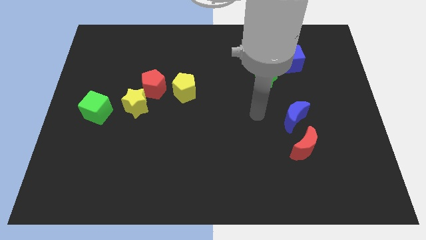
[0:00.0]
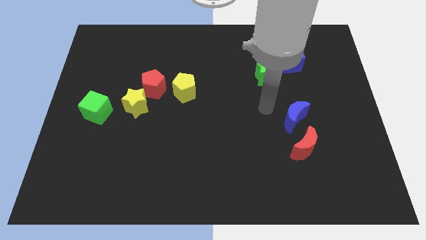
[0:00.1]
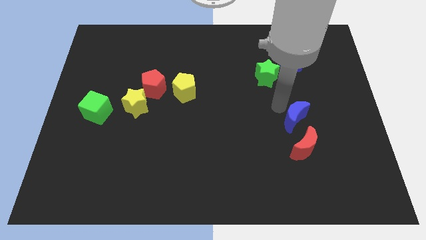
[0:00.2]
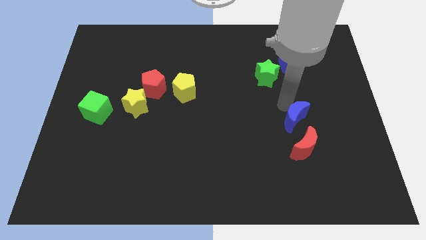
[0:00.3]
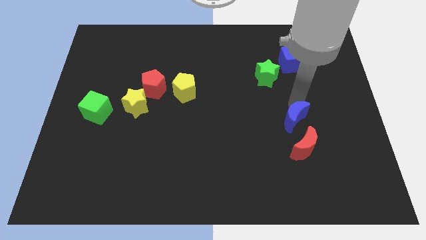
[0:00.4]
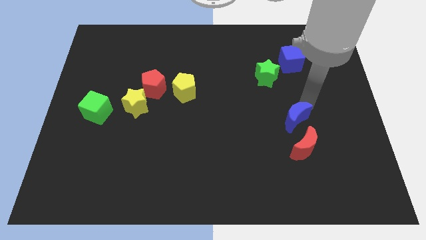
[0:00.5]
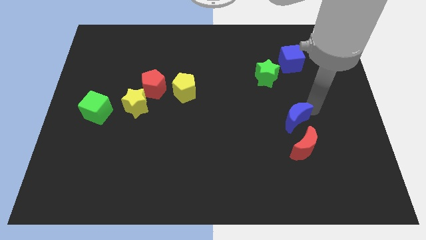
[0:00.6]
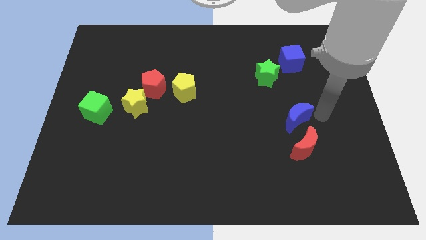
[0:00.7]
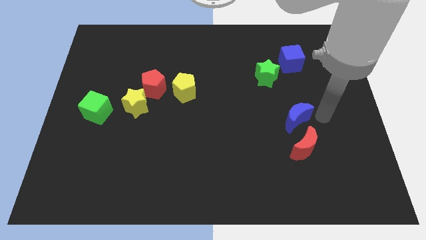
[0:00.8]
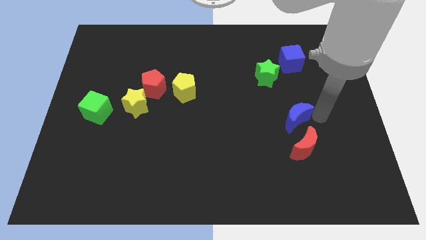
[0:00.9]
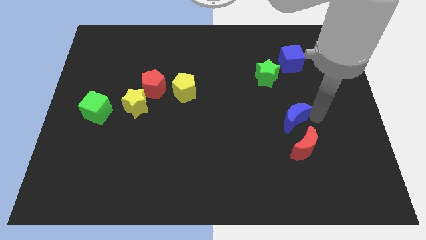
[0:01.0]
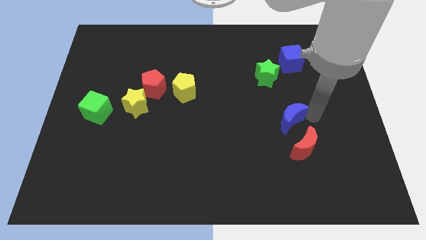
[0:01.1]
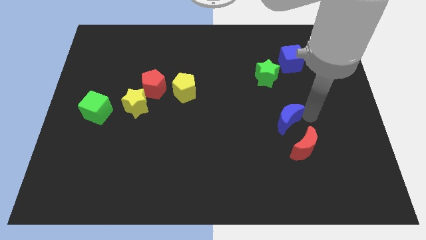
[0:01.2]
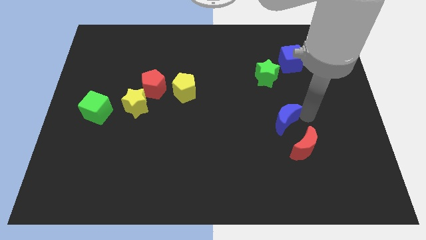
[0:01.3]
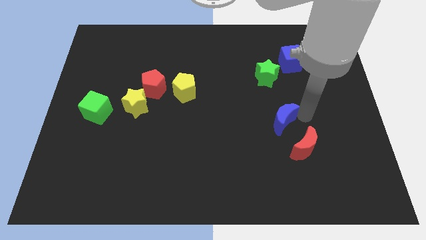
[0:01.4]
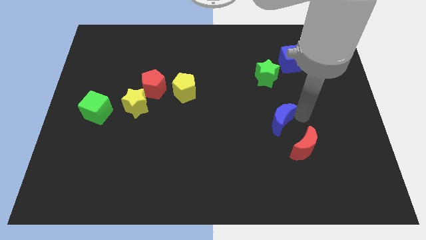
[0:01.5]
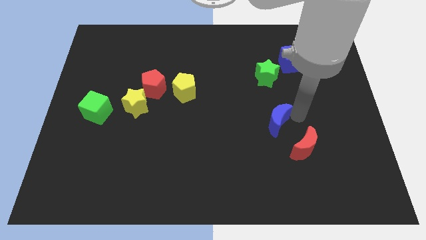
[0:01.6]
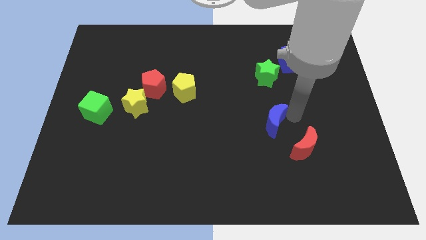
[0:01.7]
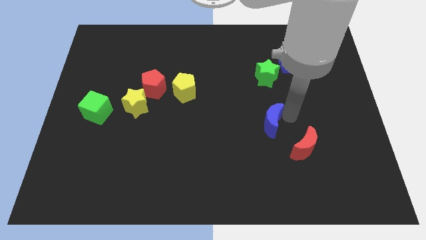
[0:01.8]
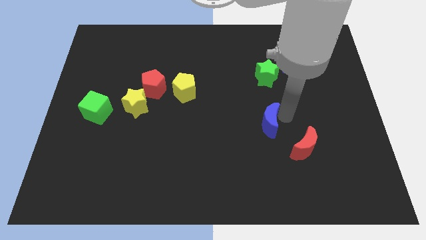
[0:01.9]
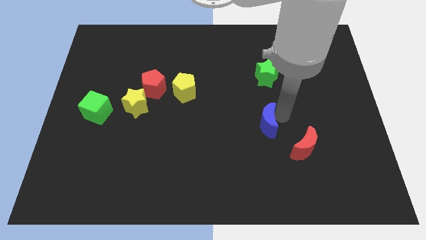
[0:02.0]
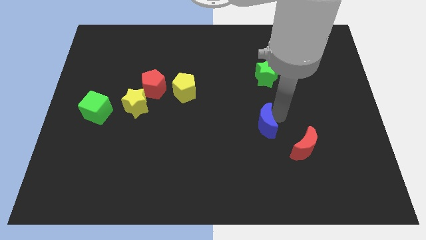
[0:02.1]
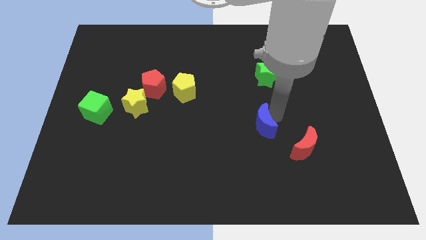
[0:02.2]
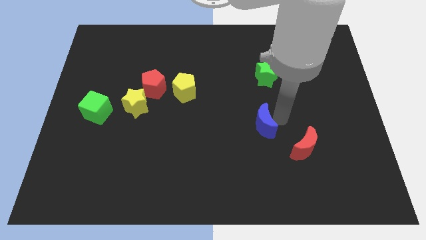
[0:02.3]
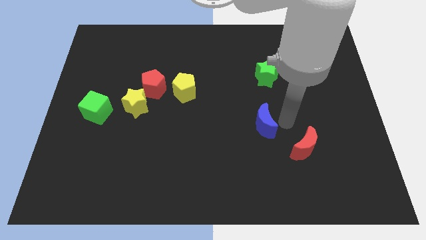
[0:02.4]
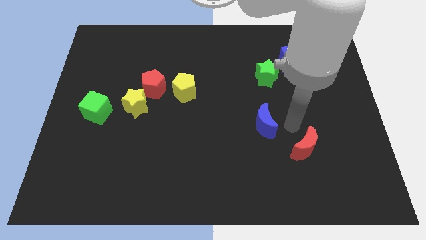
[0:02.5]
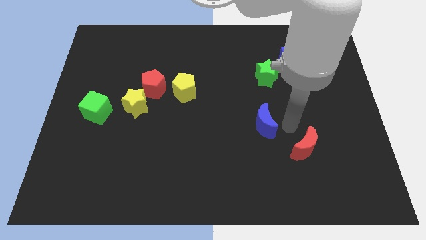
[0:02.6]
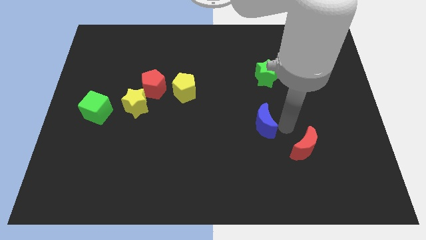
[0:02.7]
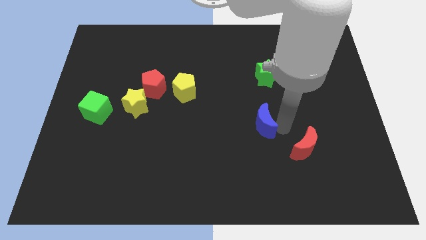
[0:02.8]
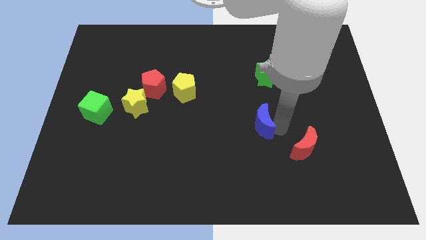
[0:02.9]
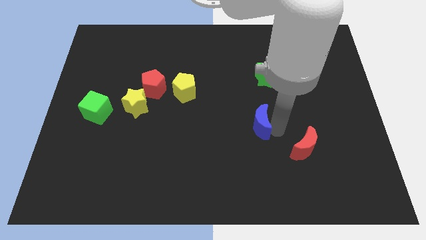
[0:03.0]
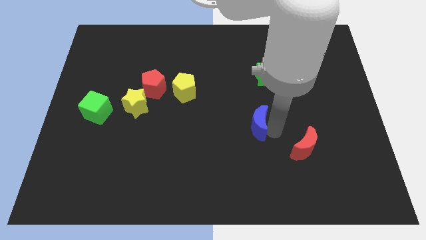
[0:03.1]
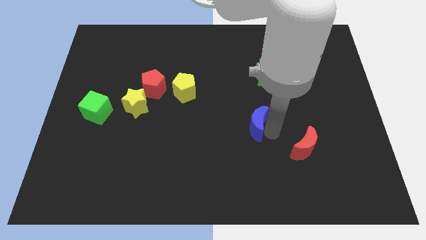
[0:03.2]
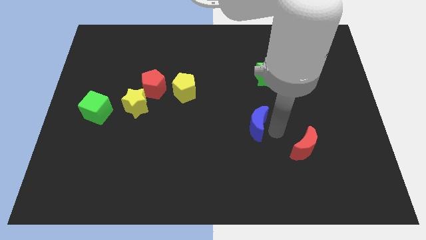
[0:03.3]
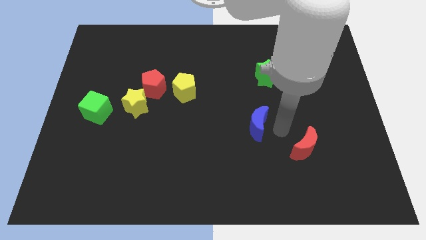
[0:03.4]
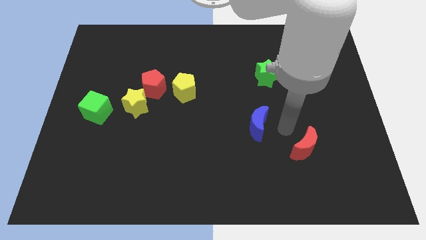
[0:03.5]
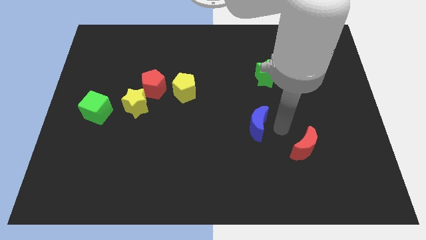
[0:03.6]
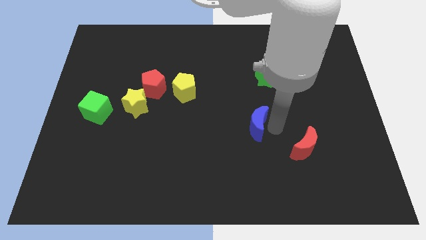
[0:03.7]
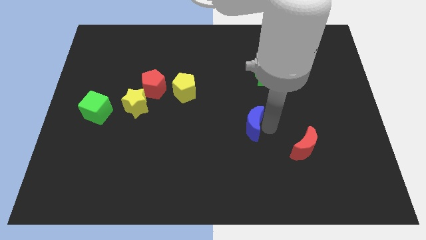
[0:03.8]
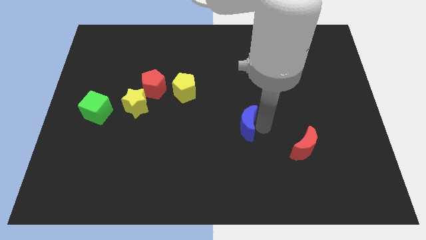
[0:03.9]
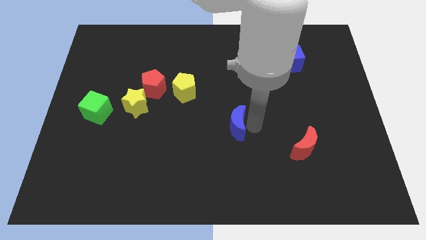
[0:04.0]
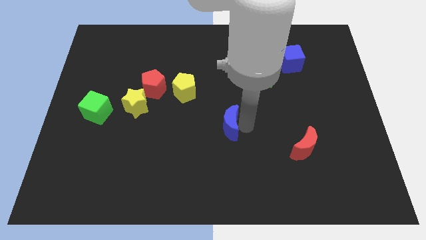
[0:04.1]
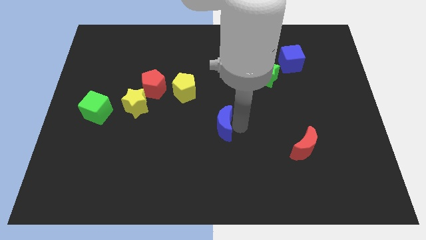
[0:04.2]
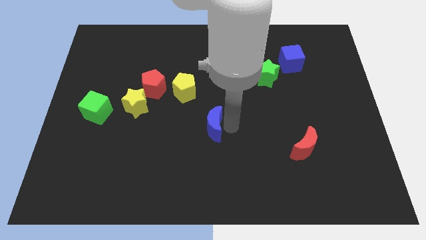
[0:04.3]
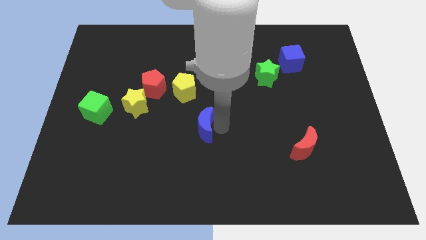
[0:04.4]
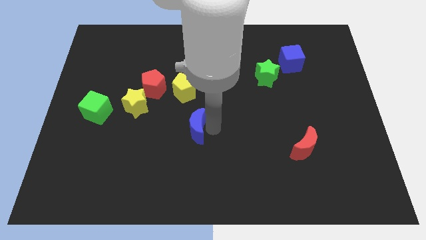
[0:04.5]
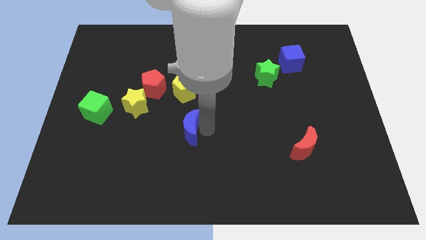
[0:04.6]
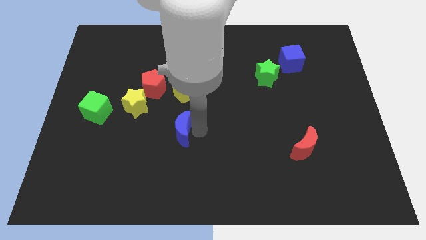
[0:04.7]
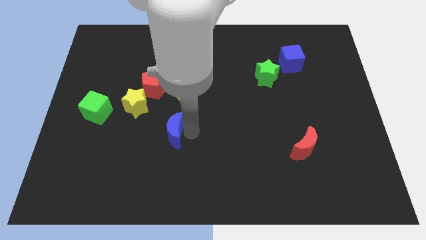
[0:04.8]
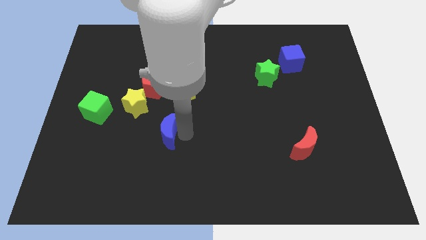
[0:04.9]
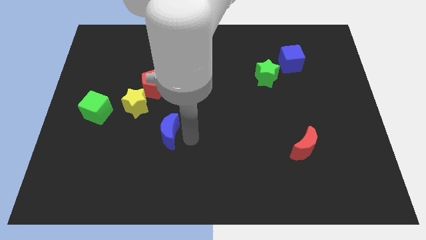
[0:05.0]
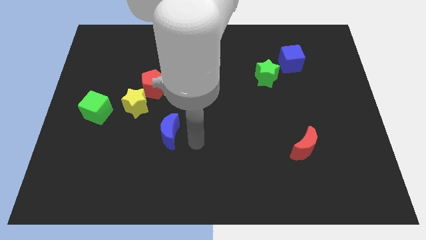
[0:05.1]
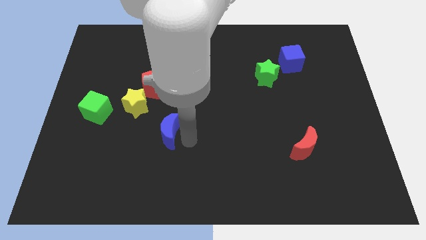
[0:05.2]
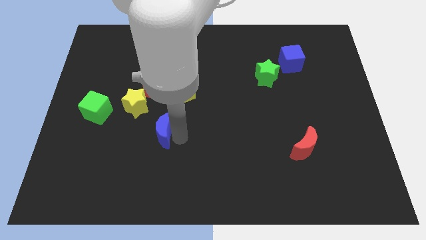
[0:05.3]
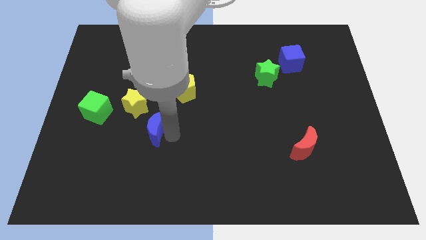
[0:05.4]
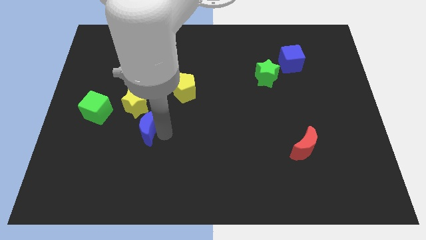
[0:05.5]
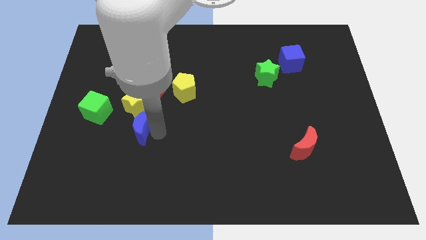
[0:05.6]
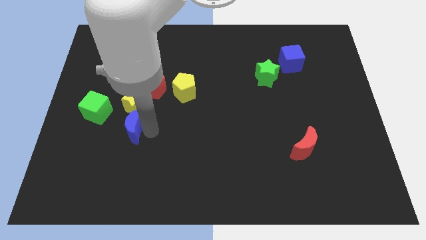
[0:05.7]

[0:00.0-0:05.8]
move the blue moon to the bottom left of the yellow star

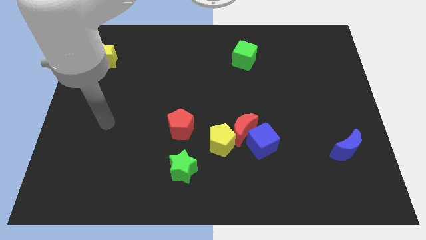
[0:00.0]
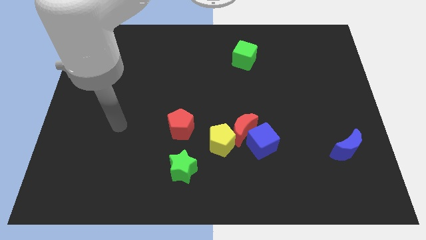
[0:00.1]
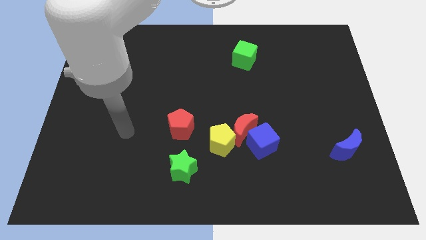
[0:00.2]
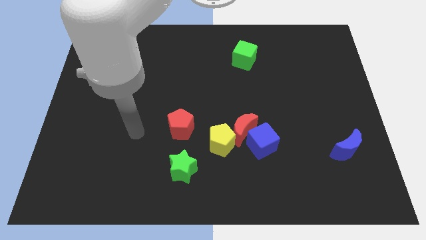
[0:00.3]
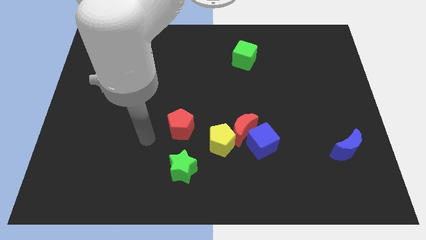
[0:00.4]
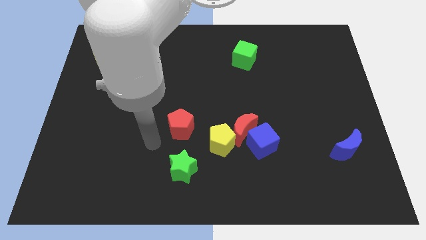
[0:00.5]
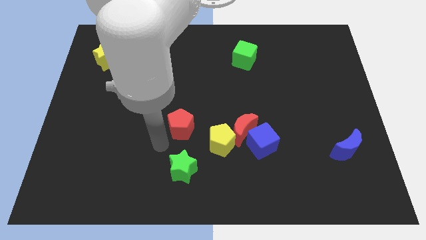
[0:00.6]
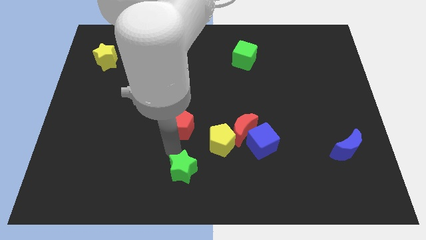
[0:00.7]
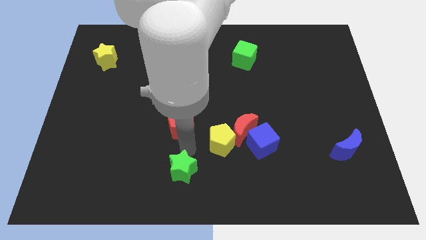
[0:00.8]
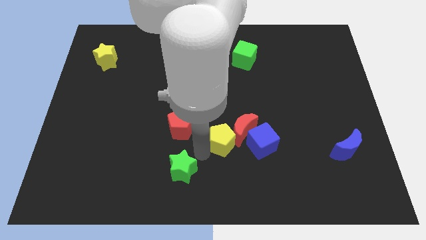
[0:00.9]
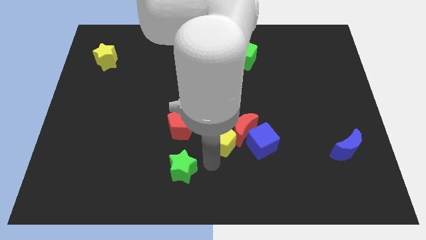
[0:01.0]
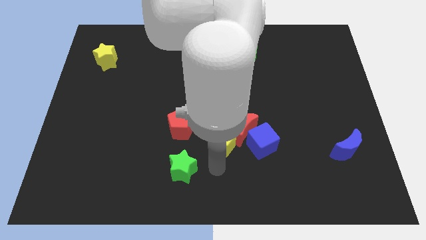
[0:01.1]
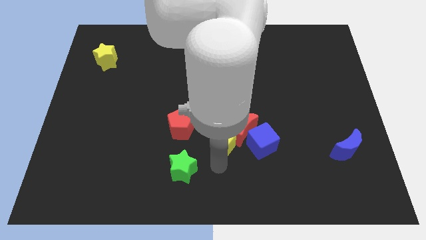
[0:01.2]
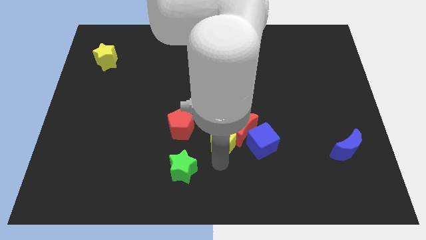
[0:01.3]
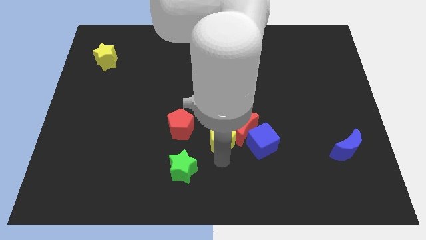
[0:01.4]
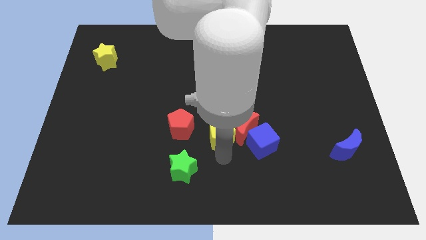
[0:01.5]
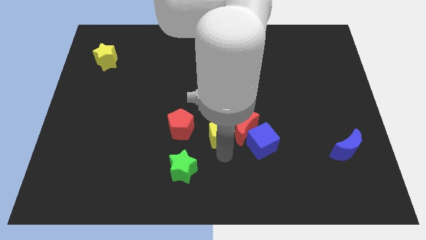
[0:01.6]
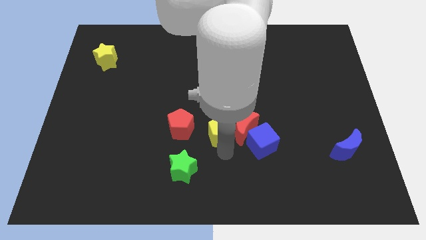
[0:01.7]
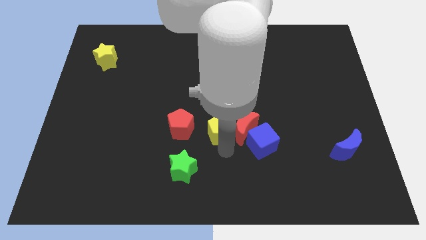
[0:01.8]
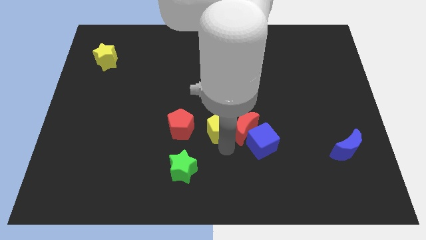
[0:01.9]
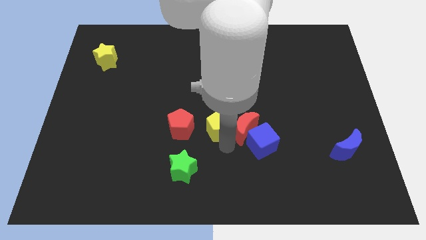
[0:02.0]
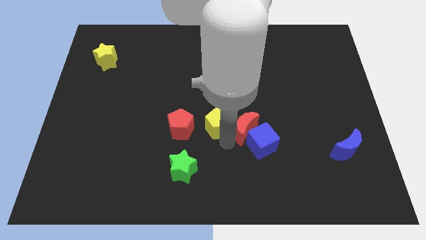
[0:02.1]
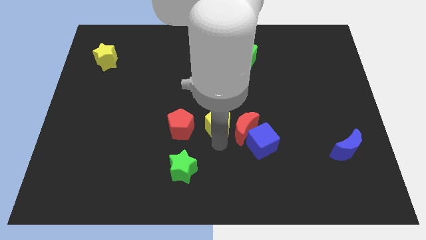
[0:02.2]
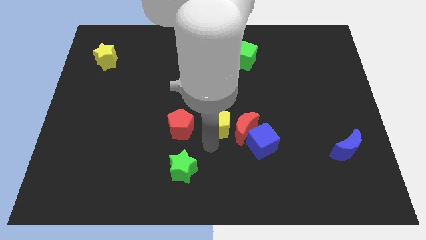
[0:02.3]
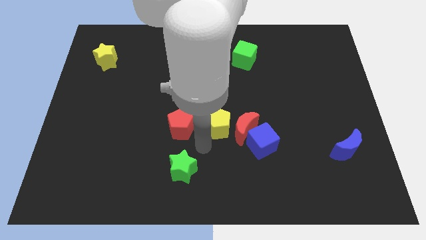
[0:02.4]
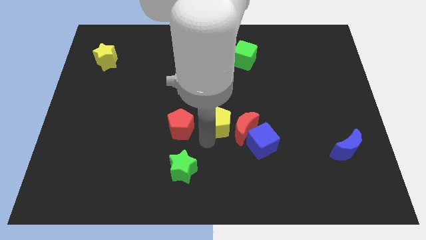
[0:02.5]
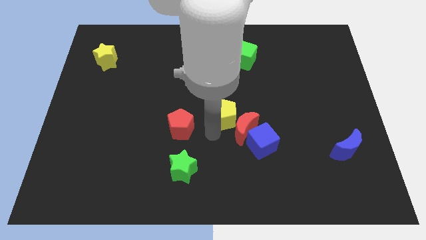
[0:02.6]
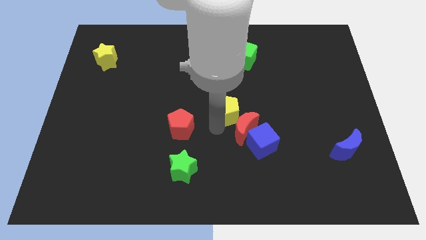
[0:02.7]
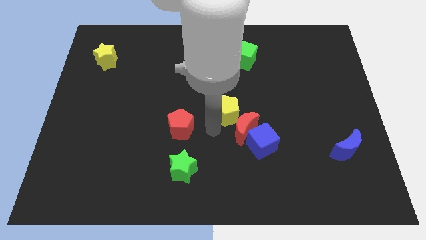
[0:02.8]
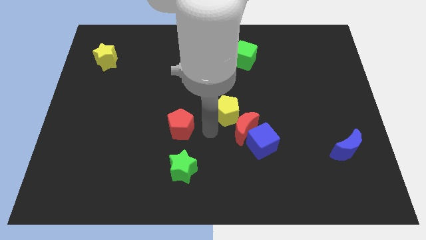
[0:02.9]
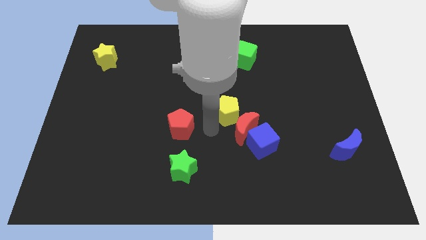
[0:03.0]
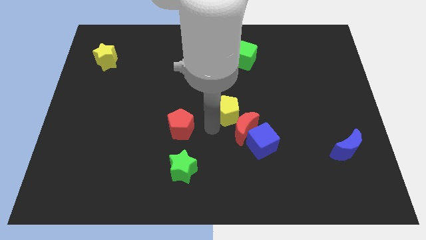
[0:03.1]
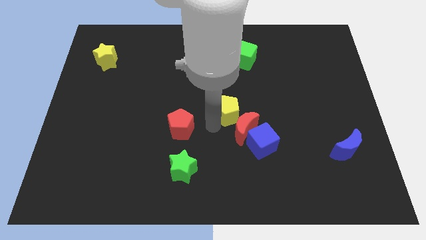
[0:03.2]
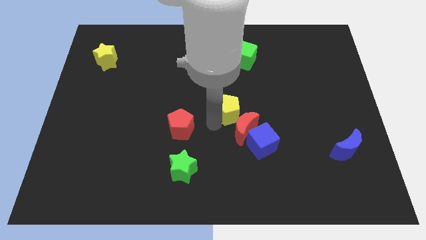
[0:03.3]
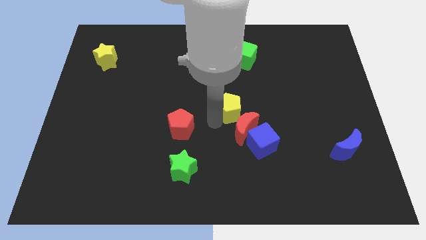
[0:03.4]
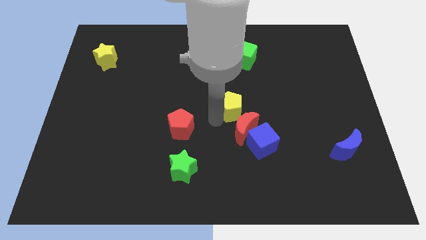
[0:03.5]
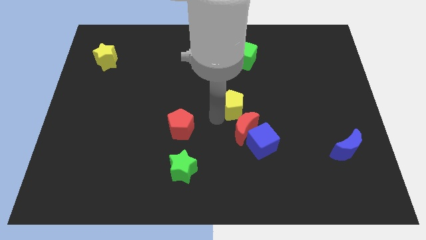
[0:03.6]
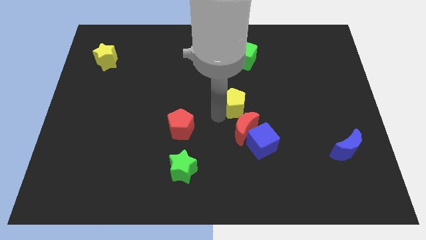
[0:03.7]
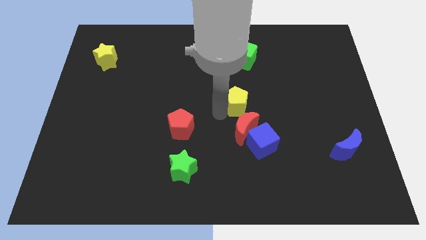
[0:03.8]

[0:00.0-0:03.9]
slide the yellow pentagon to the bottom of the green cube
